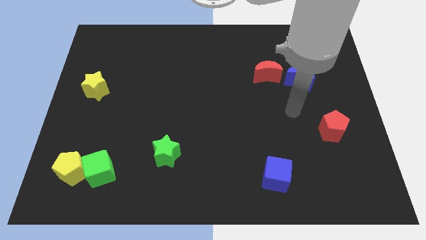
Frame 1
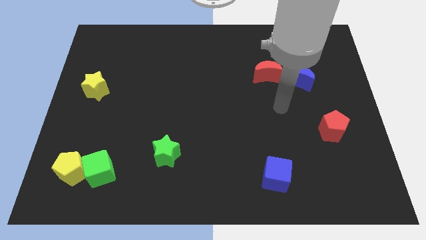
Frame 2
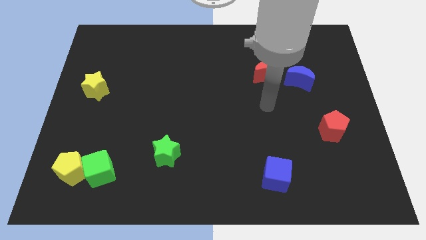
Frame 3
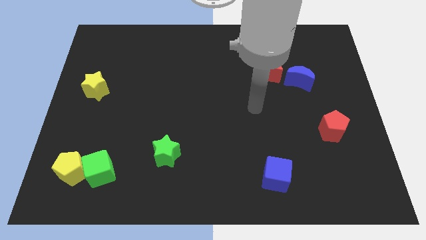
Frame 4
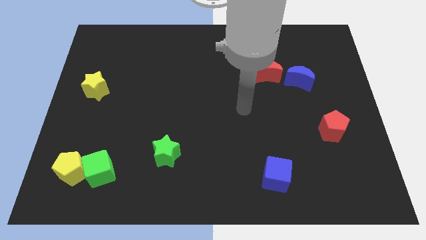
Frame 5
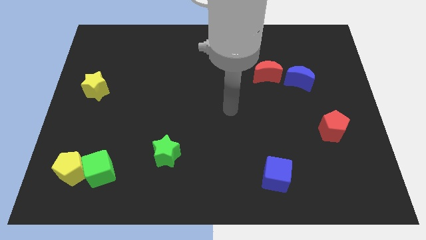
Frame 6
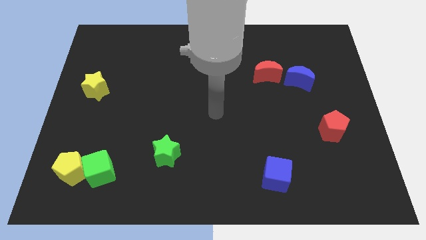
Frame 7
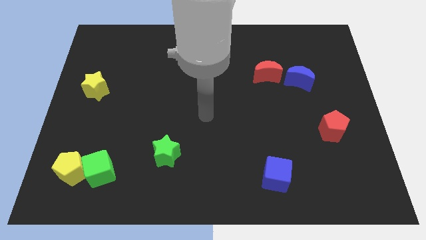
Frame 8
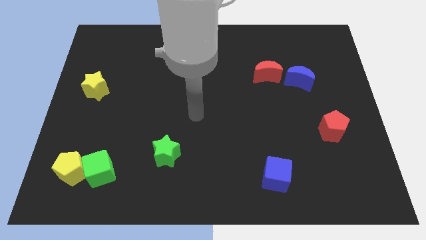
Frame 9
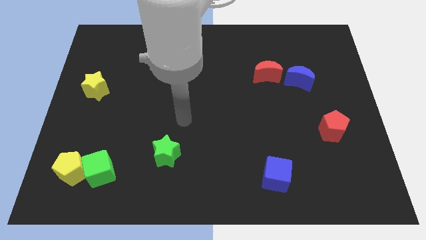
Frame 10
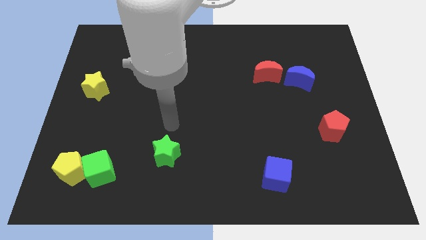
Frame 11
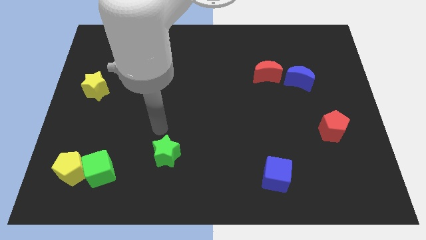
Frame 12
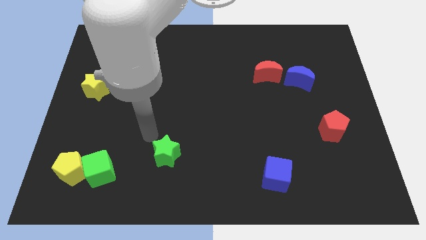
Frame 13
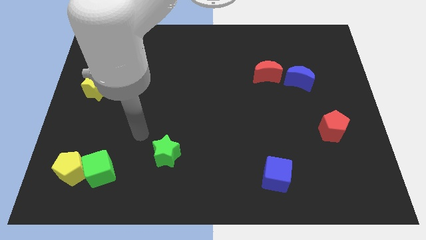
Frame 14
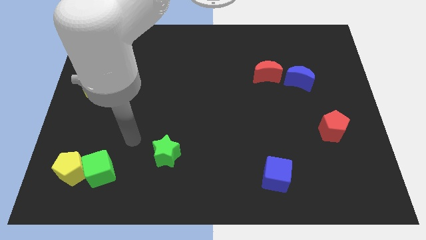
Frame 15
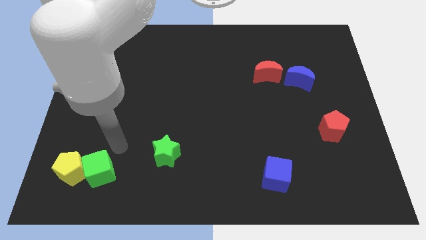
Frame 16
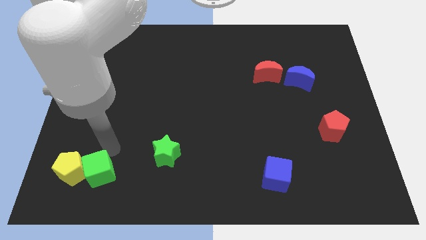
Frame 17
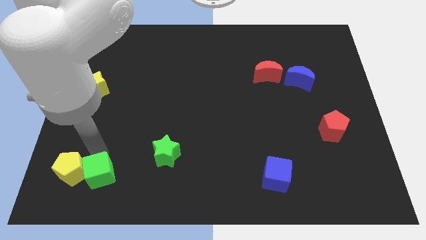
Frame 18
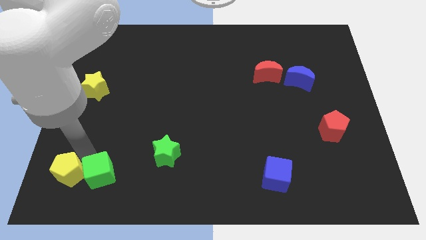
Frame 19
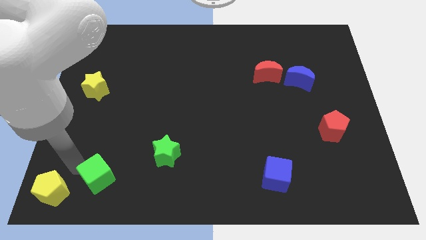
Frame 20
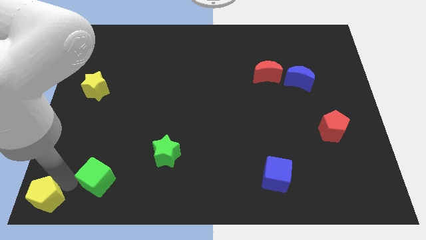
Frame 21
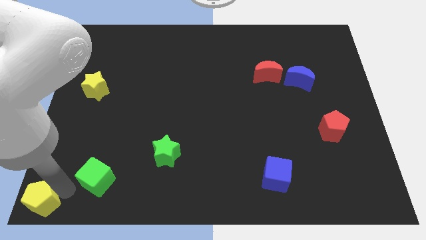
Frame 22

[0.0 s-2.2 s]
separate the green cube from the yellow pentagon

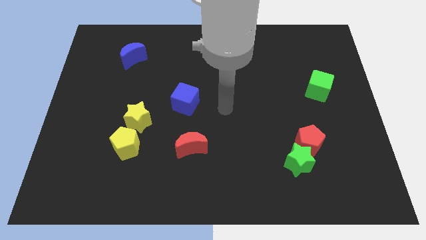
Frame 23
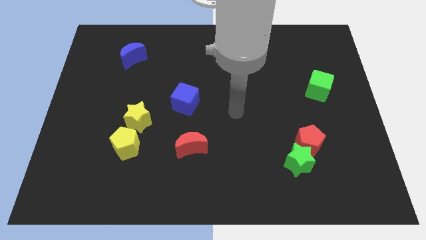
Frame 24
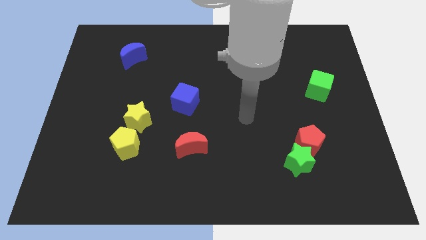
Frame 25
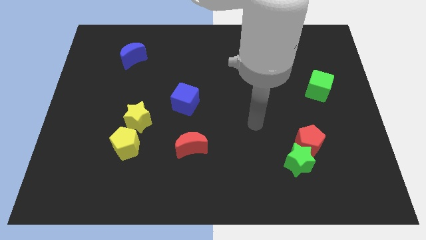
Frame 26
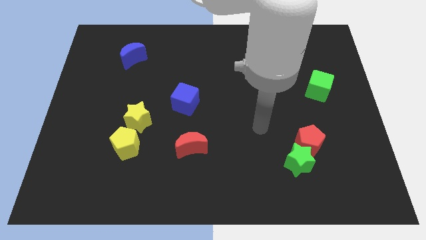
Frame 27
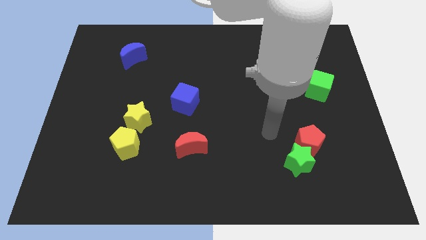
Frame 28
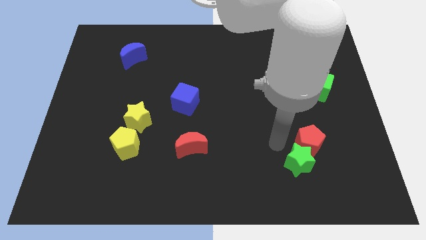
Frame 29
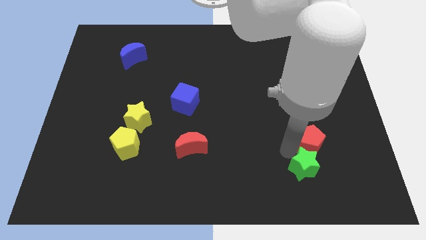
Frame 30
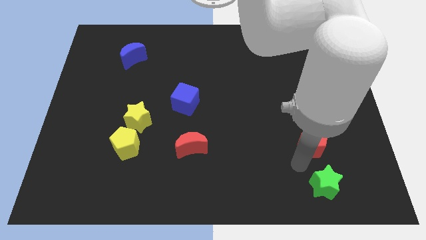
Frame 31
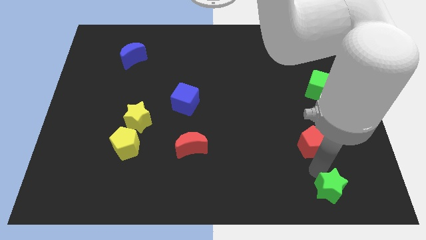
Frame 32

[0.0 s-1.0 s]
separate the red pentagon from the green star

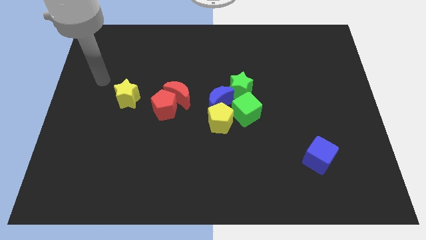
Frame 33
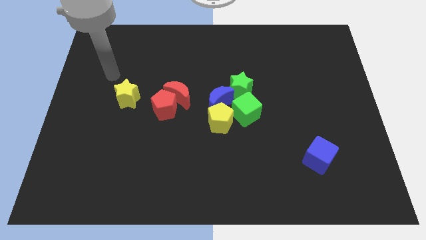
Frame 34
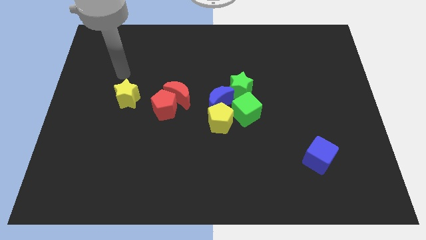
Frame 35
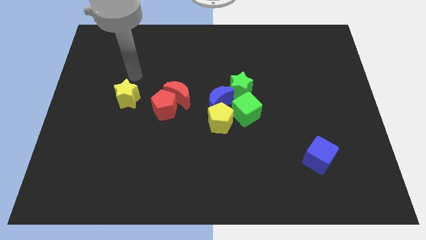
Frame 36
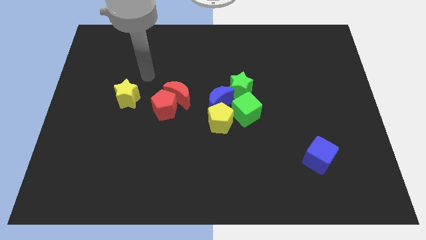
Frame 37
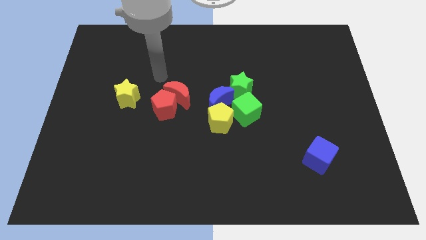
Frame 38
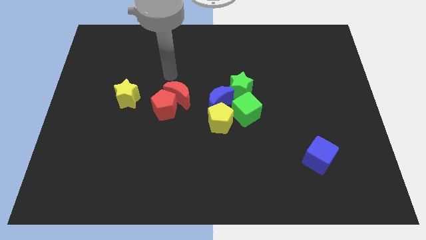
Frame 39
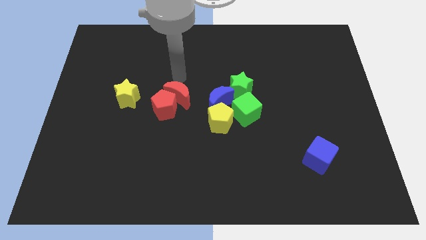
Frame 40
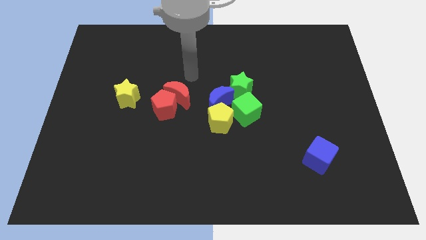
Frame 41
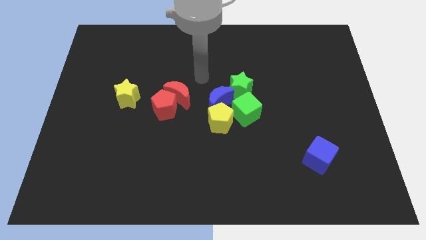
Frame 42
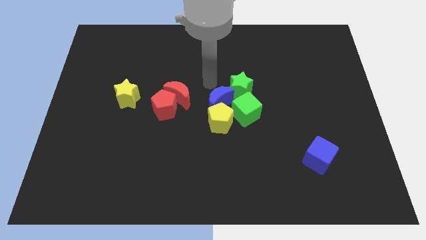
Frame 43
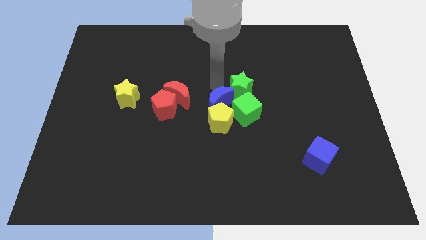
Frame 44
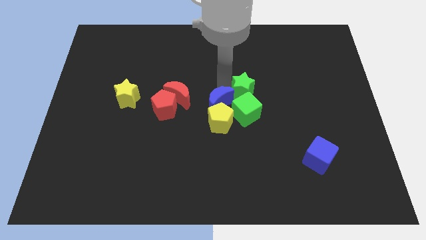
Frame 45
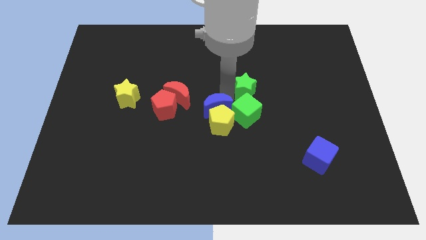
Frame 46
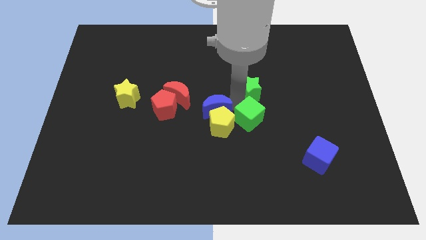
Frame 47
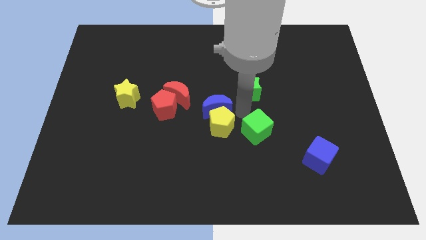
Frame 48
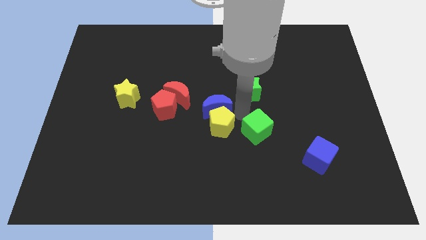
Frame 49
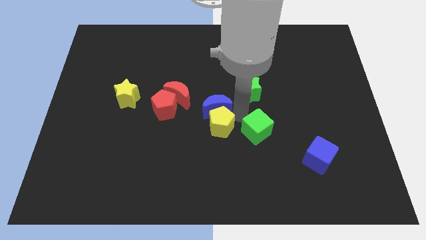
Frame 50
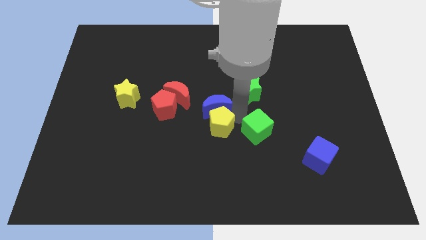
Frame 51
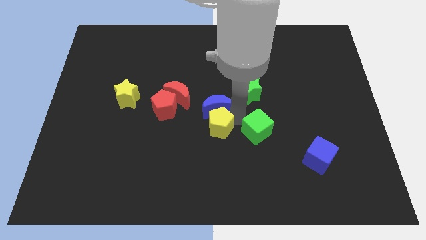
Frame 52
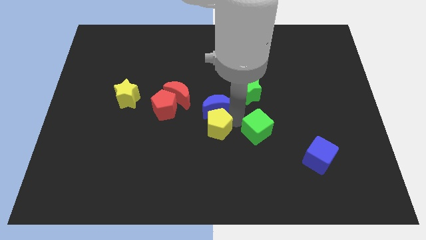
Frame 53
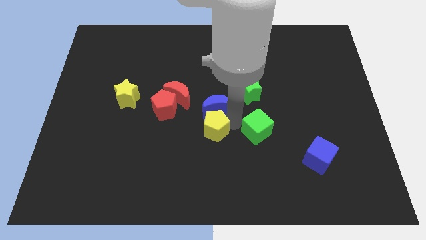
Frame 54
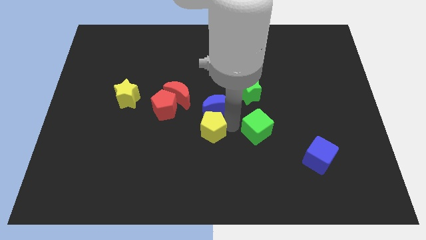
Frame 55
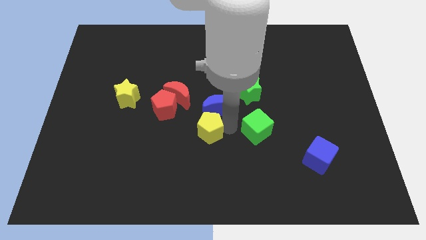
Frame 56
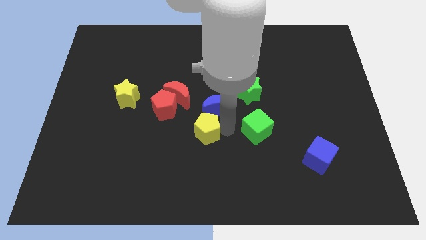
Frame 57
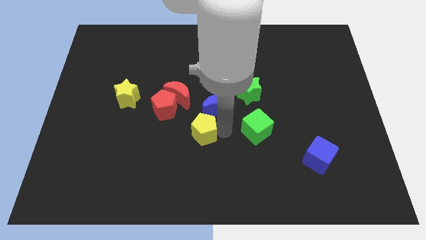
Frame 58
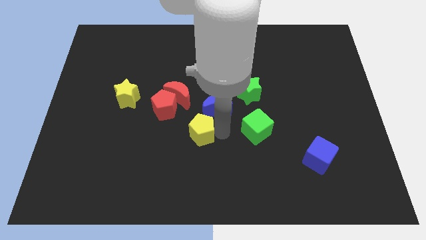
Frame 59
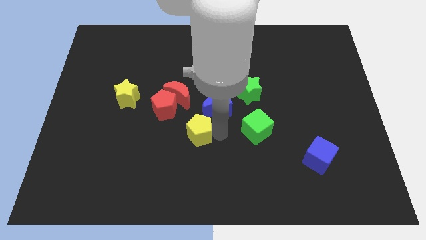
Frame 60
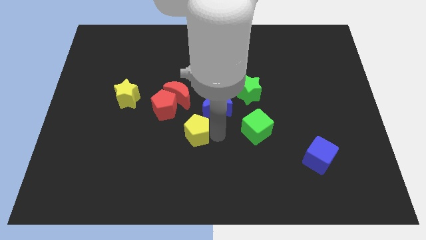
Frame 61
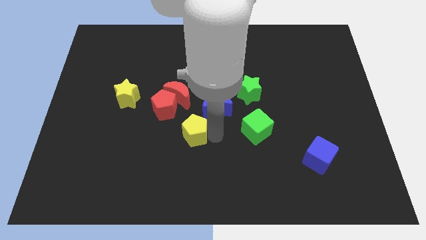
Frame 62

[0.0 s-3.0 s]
separate the yellow pentagon from the blue moon and green cube

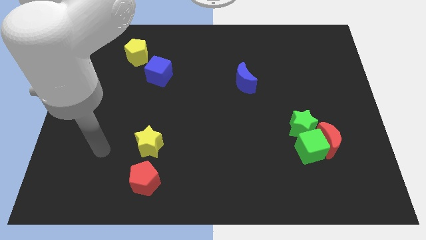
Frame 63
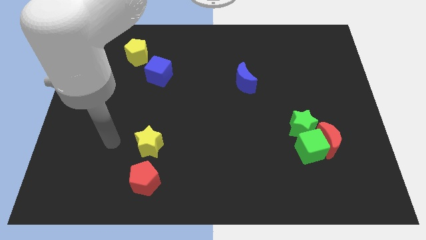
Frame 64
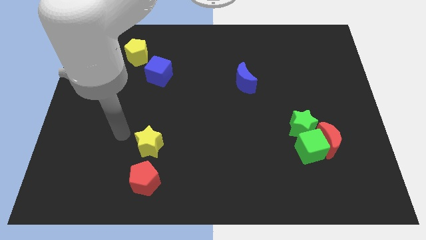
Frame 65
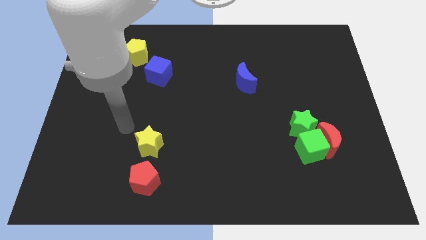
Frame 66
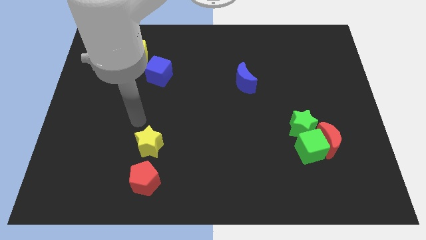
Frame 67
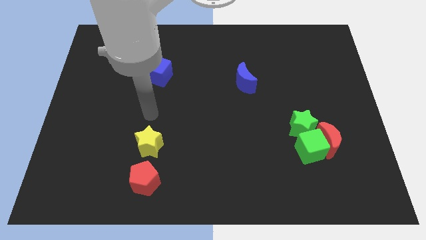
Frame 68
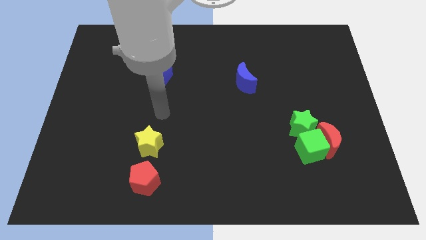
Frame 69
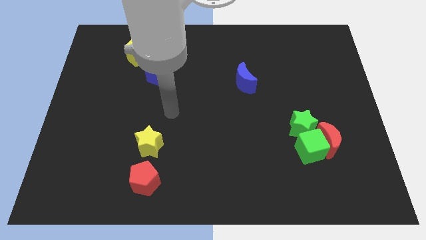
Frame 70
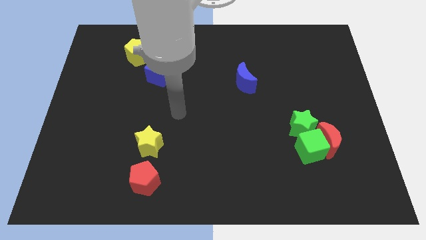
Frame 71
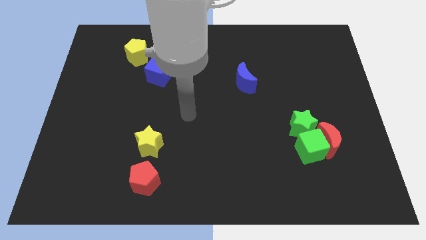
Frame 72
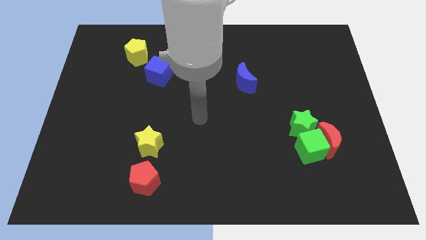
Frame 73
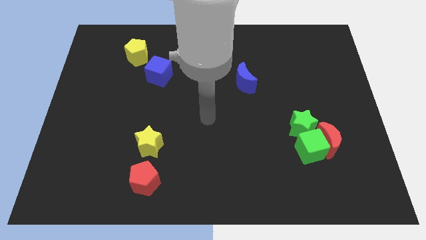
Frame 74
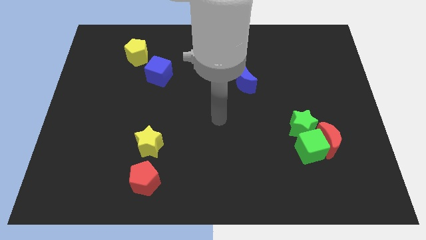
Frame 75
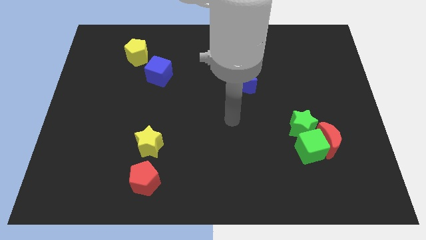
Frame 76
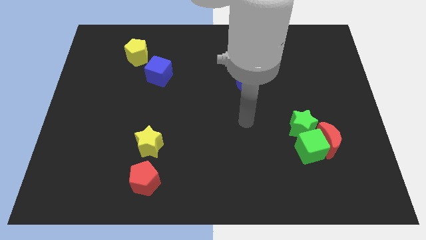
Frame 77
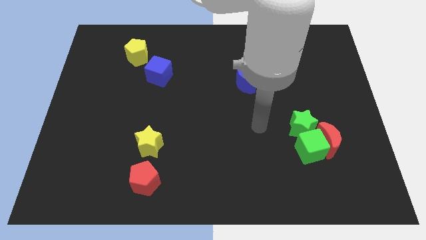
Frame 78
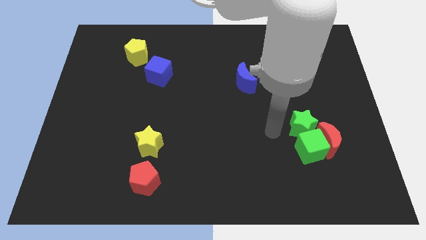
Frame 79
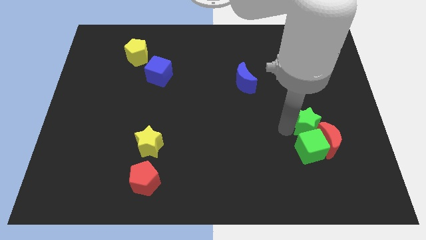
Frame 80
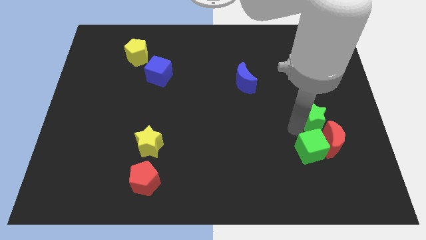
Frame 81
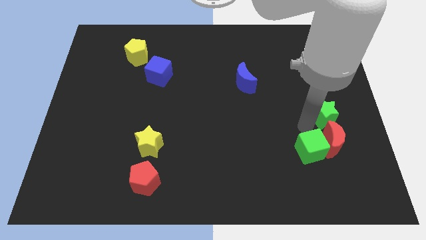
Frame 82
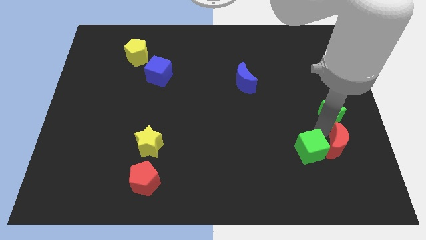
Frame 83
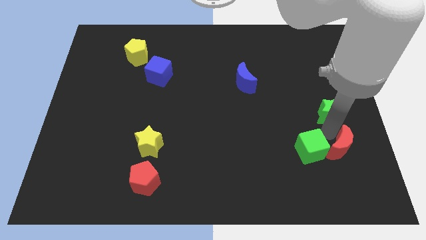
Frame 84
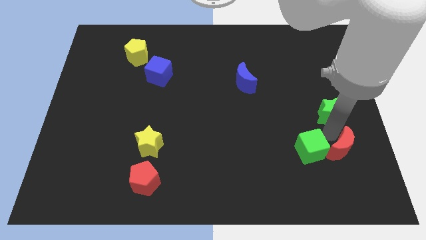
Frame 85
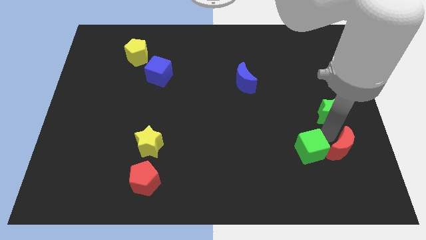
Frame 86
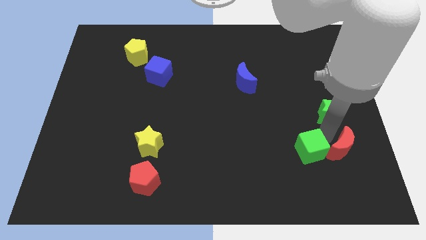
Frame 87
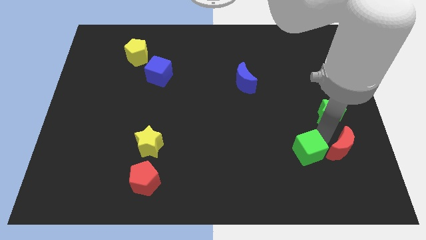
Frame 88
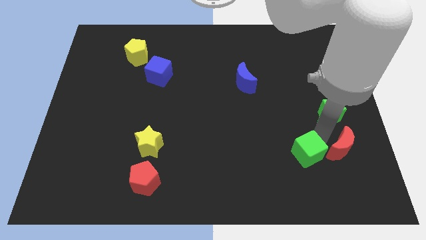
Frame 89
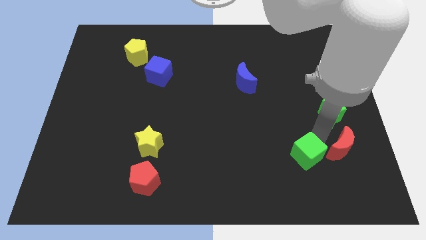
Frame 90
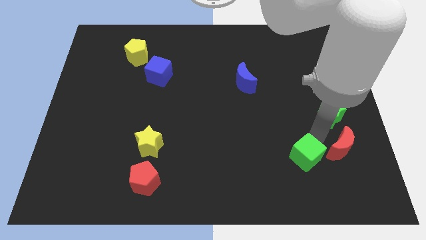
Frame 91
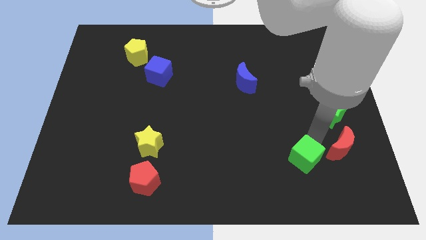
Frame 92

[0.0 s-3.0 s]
move the green cube away from the red moon and green star

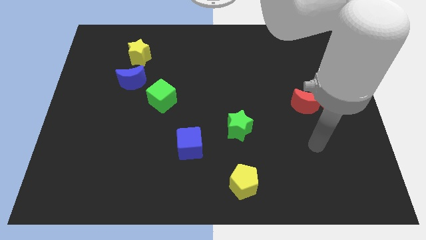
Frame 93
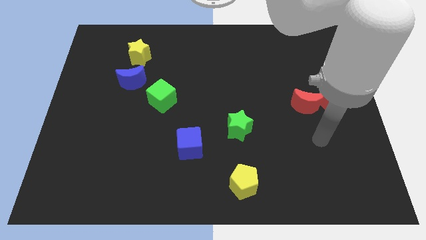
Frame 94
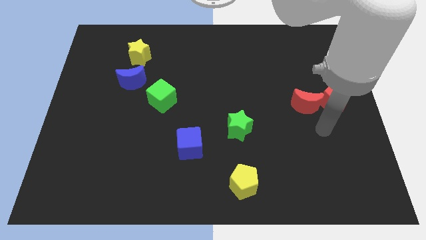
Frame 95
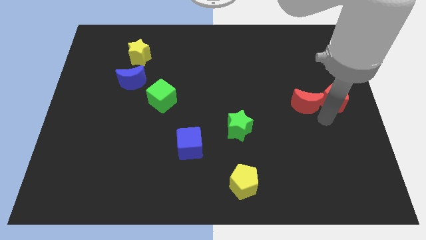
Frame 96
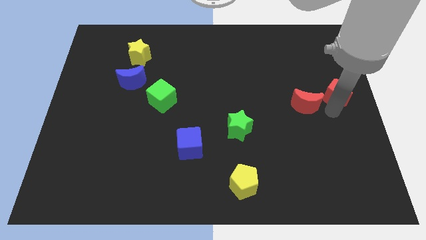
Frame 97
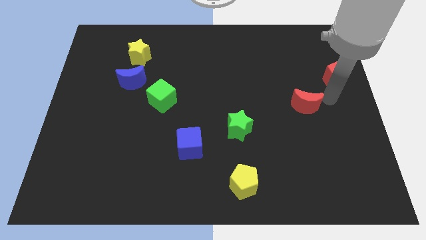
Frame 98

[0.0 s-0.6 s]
move the red moon away from the red pentagon
